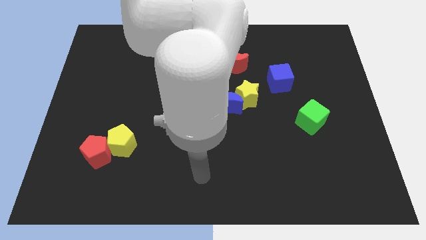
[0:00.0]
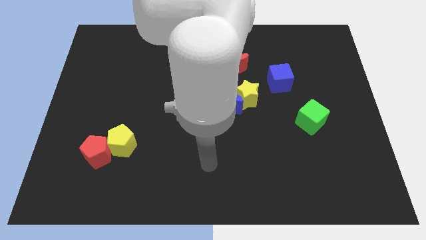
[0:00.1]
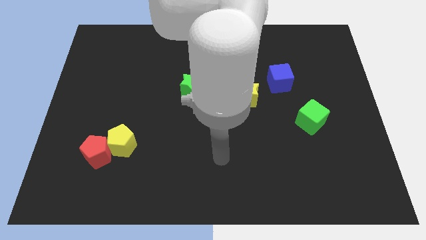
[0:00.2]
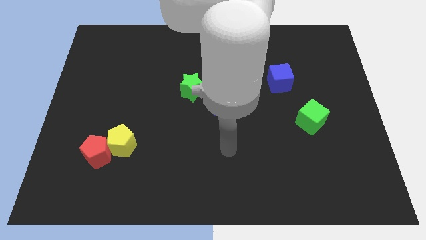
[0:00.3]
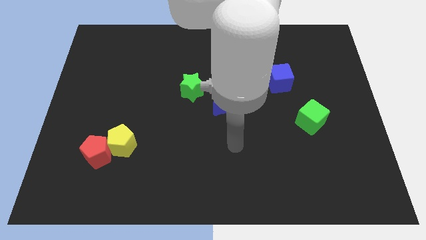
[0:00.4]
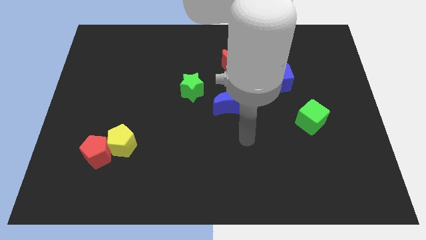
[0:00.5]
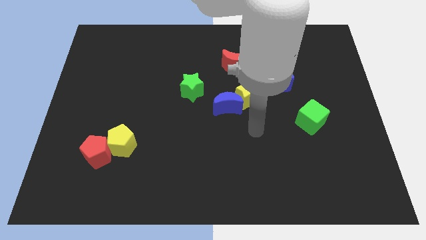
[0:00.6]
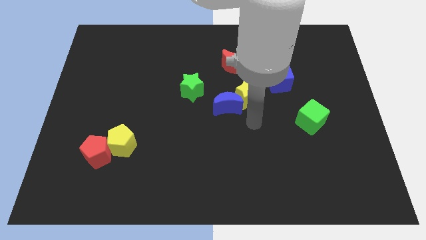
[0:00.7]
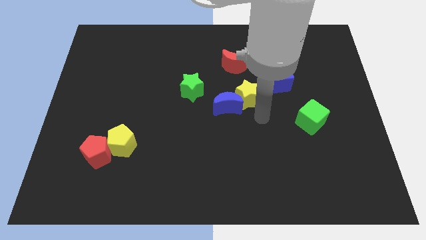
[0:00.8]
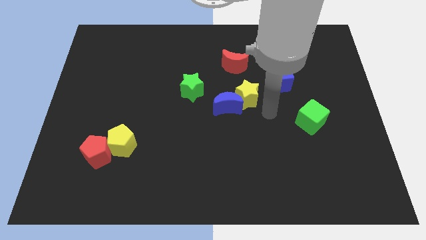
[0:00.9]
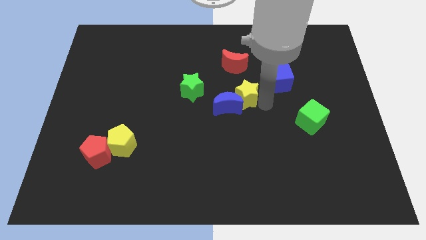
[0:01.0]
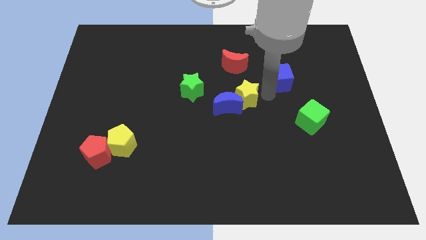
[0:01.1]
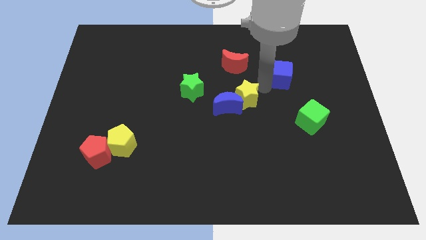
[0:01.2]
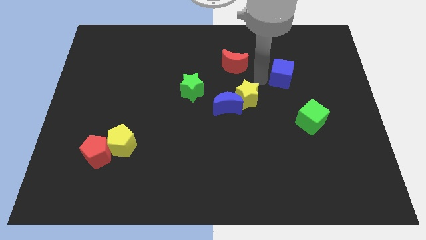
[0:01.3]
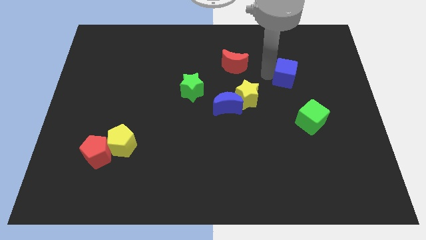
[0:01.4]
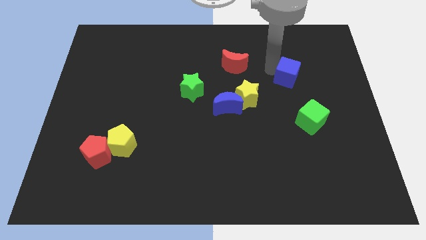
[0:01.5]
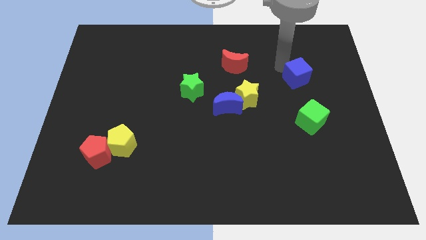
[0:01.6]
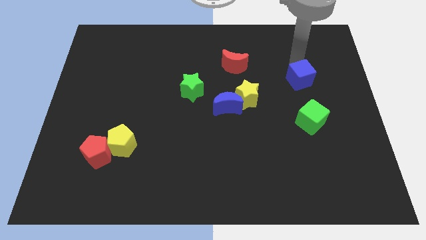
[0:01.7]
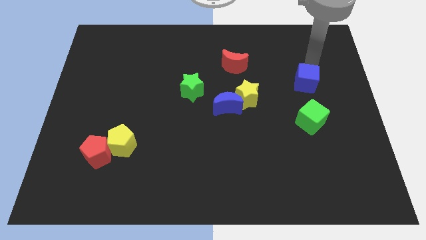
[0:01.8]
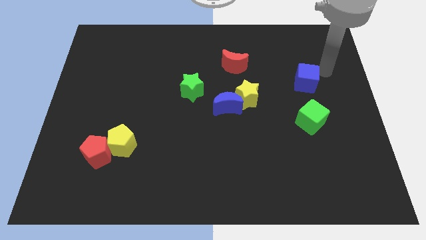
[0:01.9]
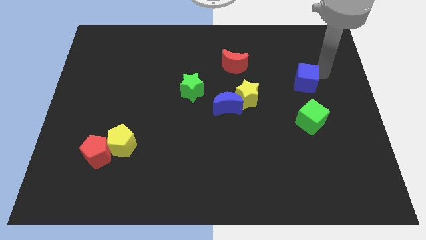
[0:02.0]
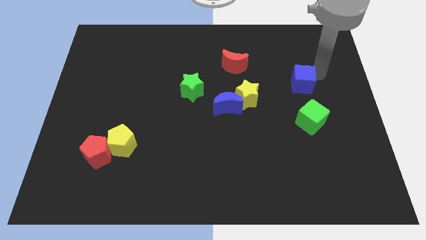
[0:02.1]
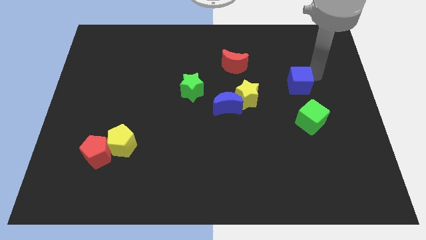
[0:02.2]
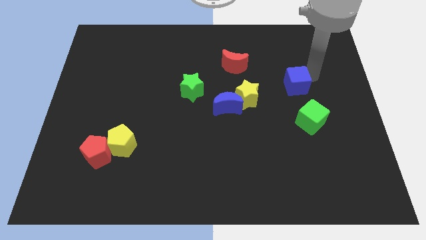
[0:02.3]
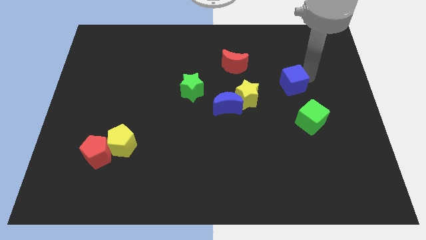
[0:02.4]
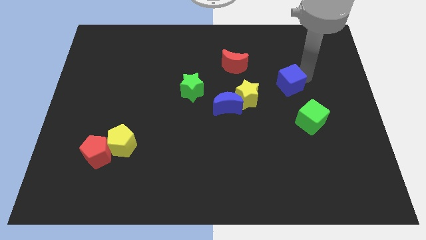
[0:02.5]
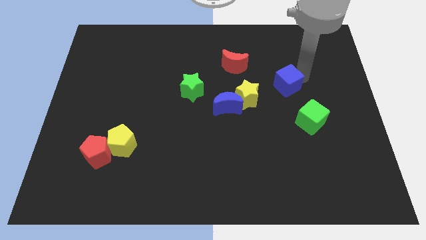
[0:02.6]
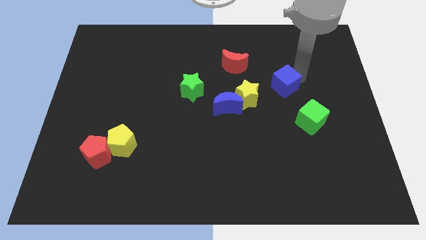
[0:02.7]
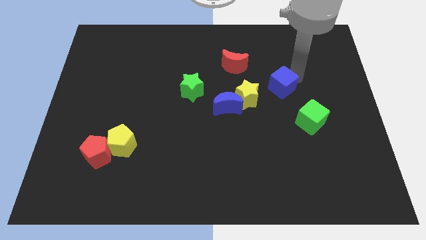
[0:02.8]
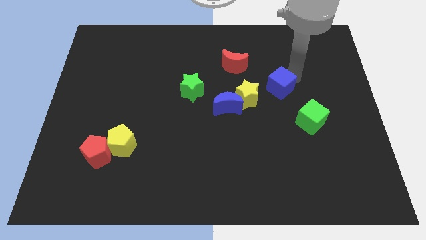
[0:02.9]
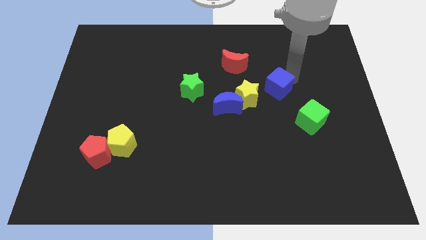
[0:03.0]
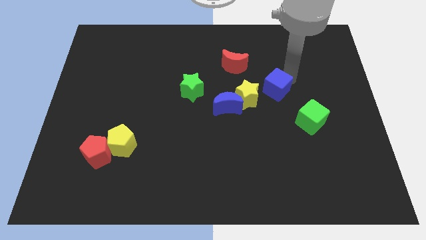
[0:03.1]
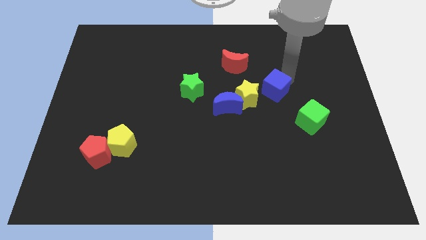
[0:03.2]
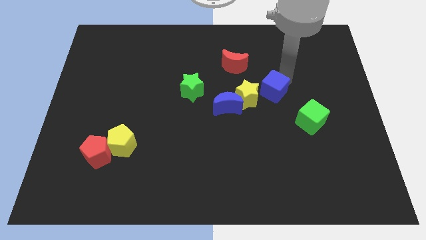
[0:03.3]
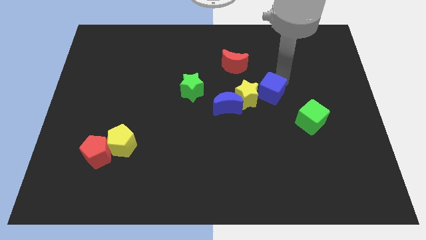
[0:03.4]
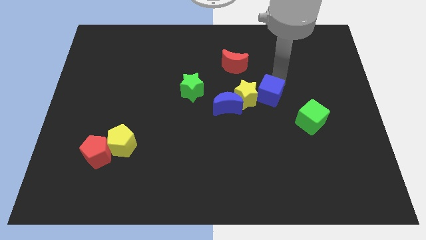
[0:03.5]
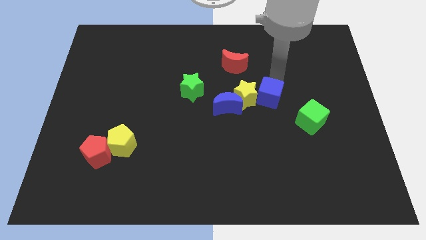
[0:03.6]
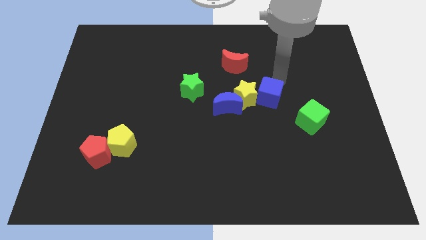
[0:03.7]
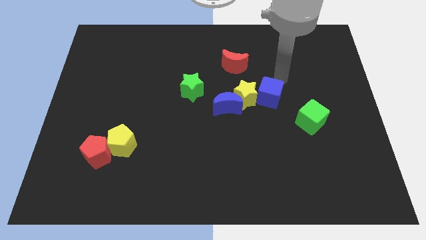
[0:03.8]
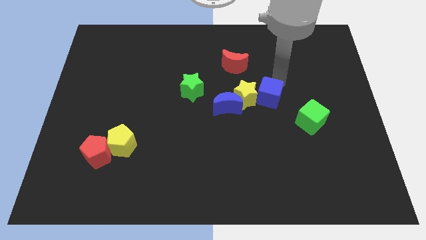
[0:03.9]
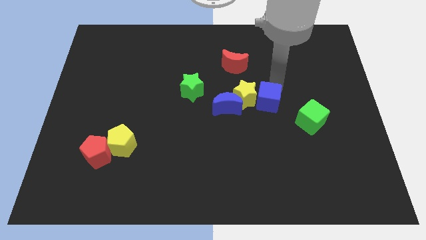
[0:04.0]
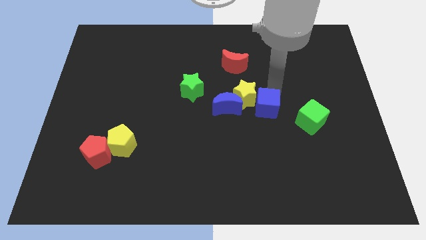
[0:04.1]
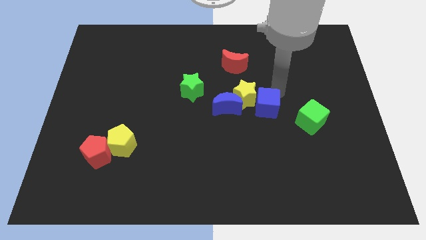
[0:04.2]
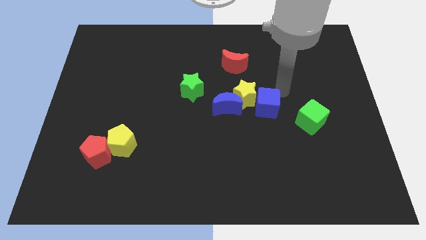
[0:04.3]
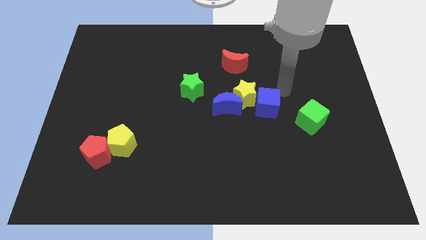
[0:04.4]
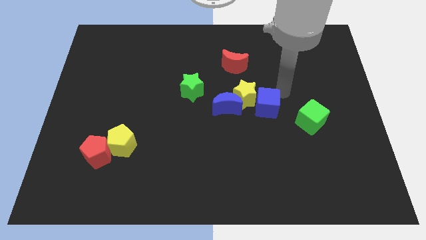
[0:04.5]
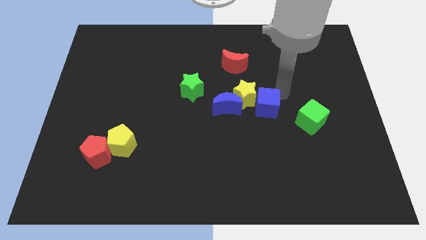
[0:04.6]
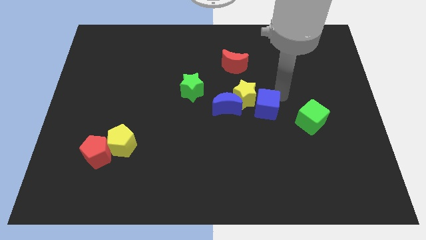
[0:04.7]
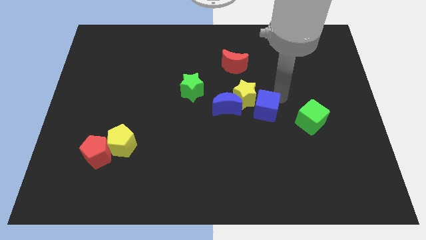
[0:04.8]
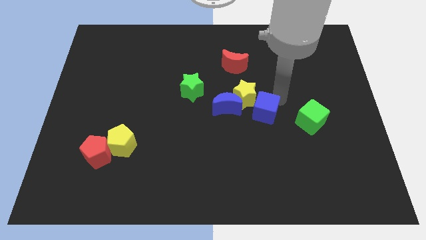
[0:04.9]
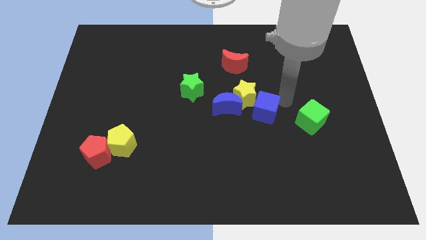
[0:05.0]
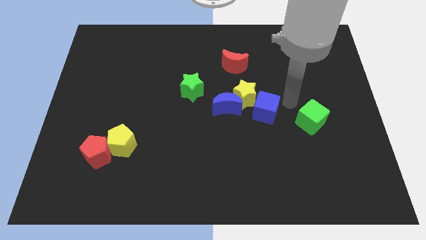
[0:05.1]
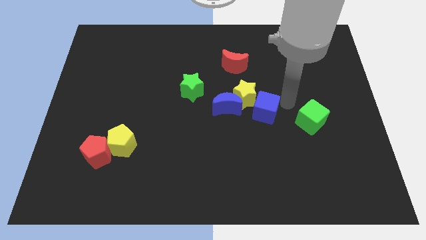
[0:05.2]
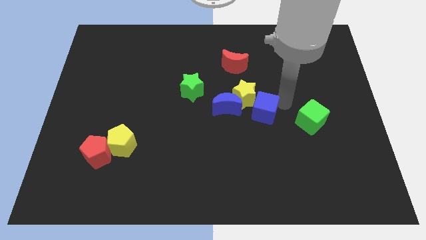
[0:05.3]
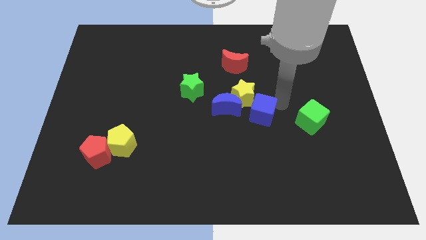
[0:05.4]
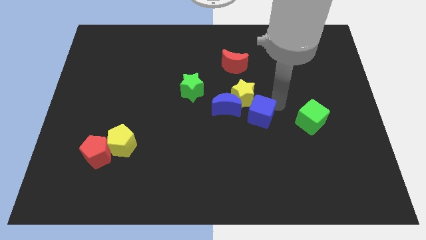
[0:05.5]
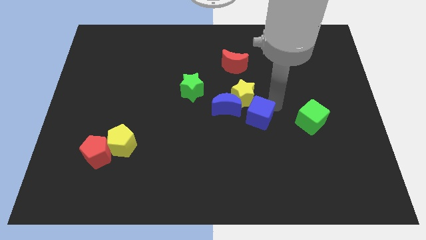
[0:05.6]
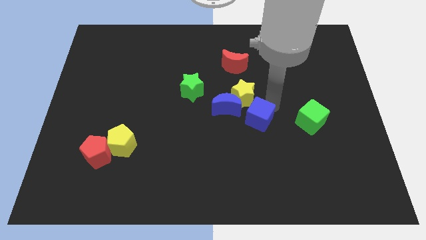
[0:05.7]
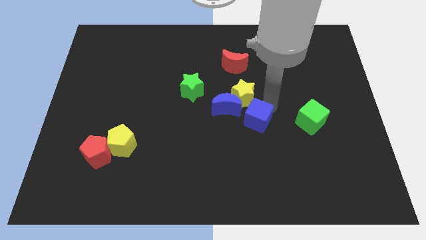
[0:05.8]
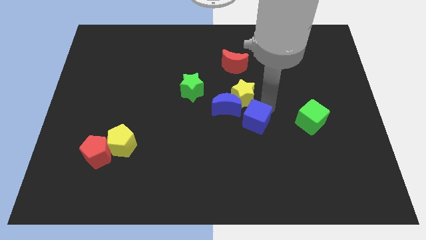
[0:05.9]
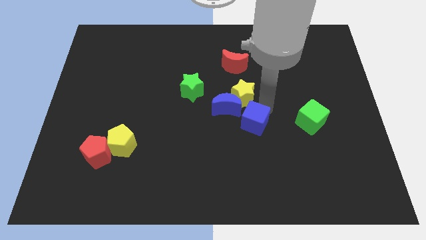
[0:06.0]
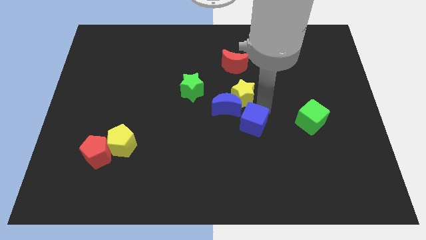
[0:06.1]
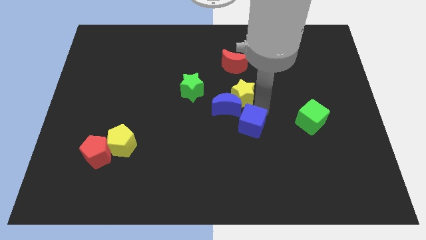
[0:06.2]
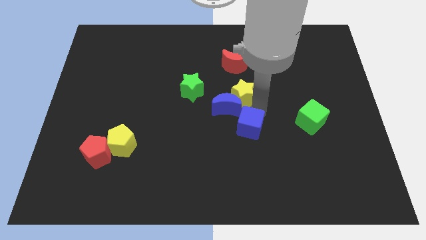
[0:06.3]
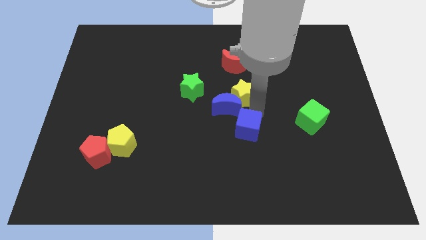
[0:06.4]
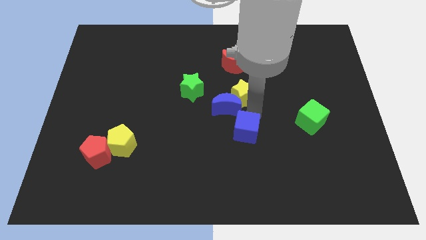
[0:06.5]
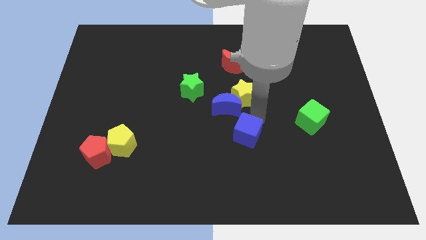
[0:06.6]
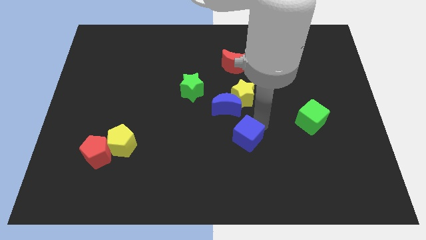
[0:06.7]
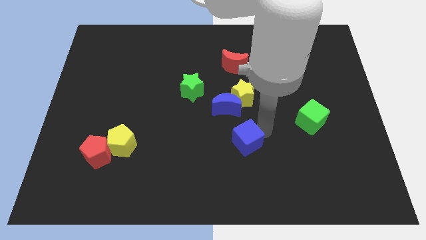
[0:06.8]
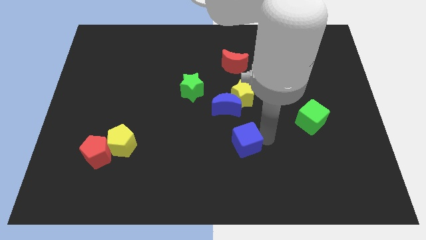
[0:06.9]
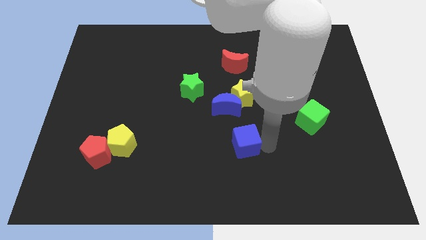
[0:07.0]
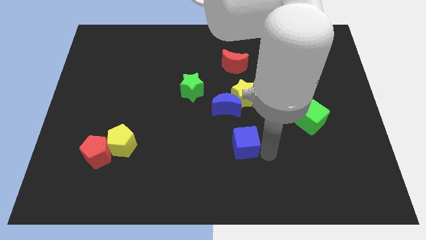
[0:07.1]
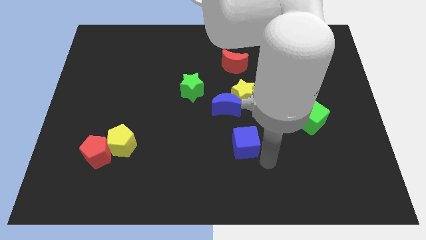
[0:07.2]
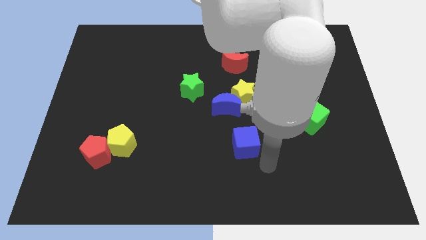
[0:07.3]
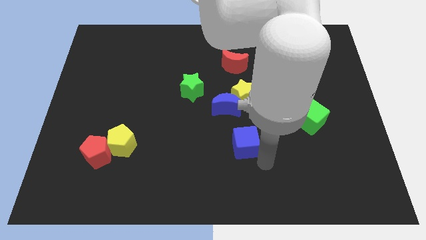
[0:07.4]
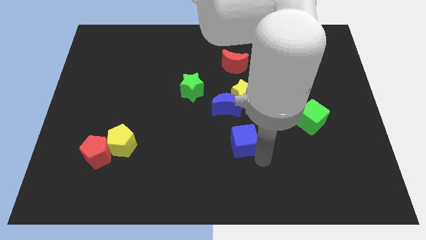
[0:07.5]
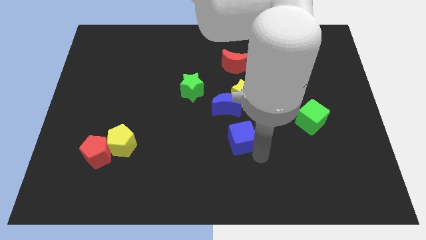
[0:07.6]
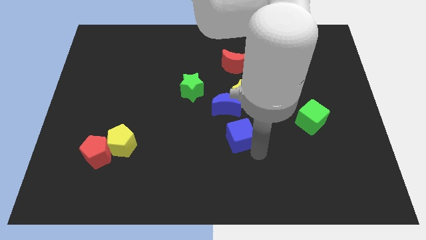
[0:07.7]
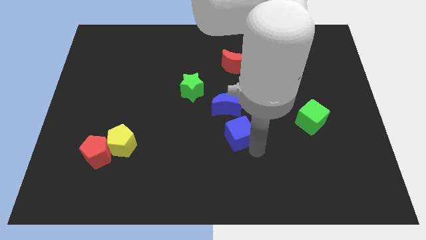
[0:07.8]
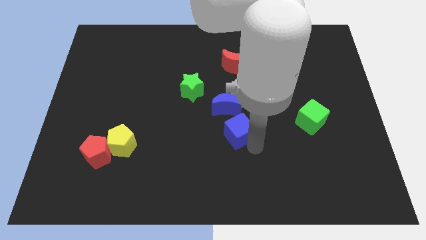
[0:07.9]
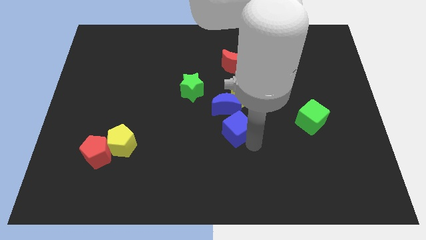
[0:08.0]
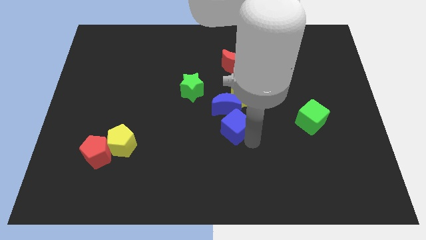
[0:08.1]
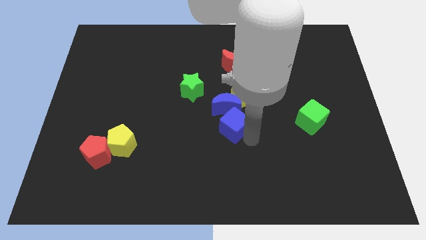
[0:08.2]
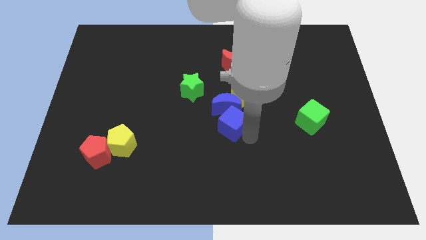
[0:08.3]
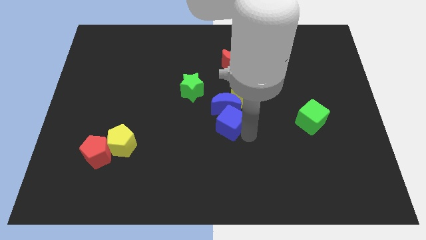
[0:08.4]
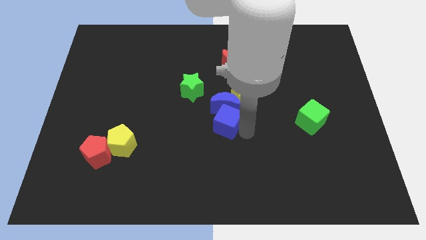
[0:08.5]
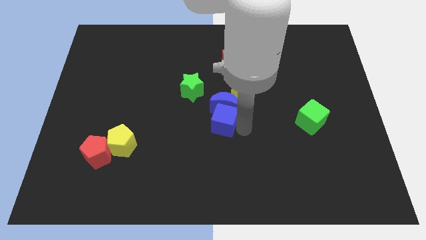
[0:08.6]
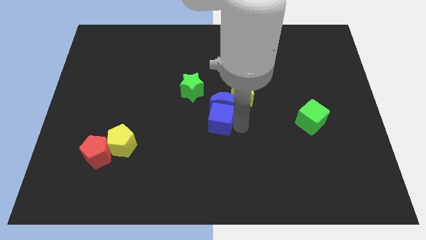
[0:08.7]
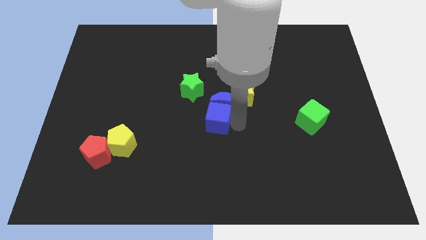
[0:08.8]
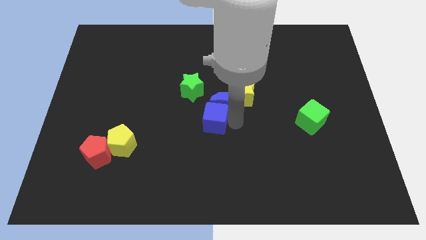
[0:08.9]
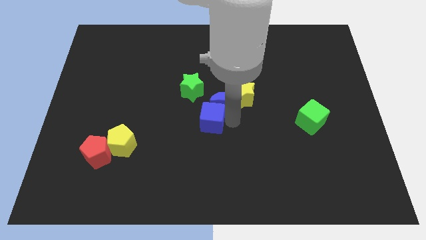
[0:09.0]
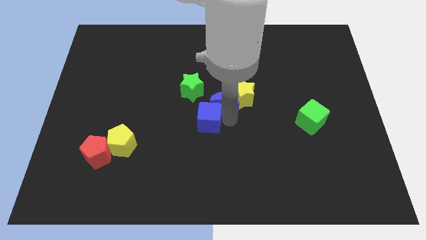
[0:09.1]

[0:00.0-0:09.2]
push the blue cube to the bottom side of the green star
